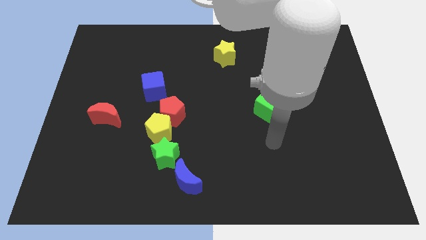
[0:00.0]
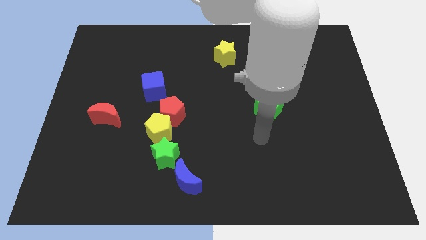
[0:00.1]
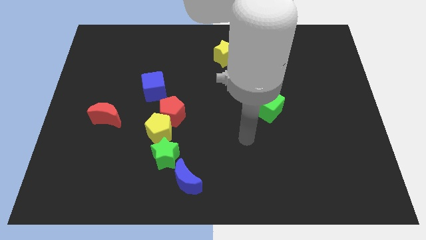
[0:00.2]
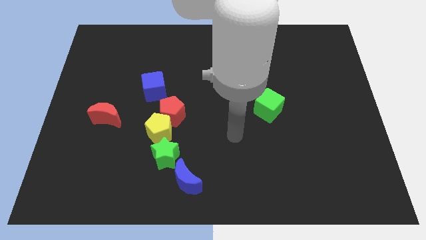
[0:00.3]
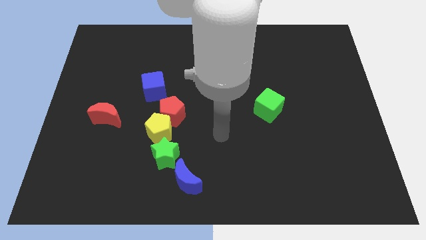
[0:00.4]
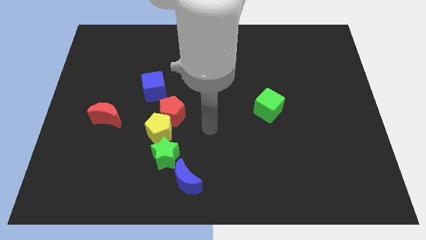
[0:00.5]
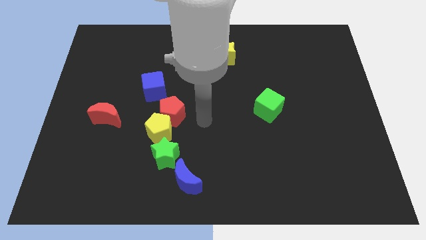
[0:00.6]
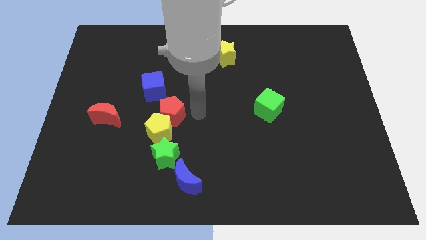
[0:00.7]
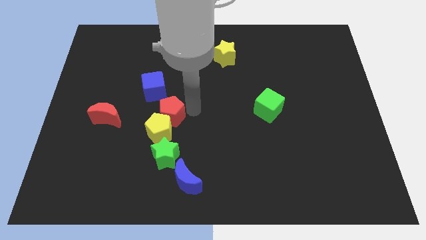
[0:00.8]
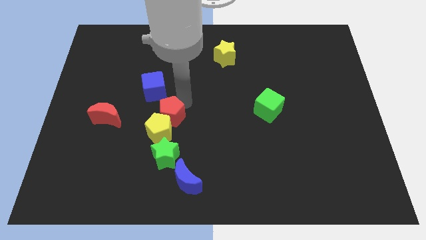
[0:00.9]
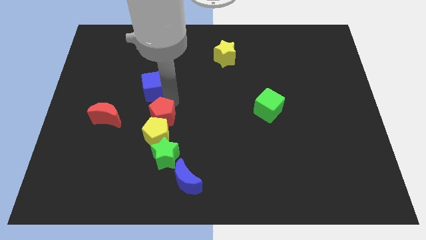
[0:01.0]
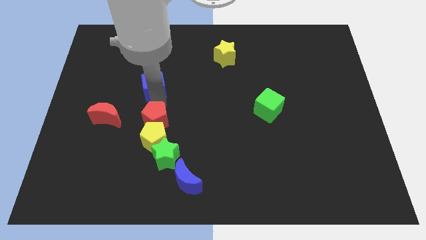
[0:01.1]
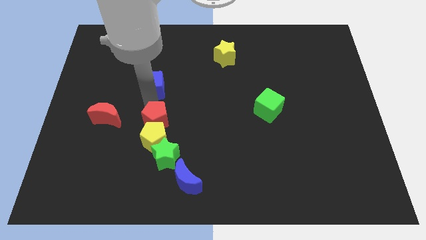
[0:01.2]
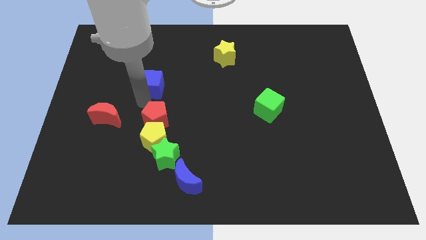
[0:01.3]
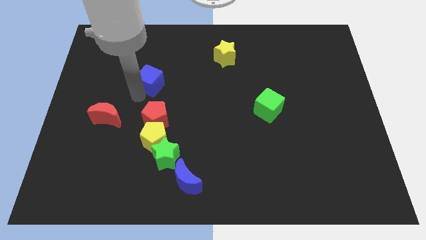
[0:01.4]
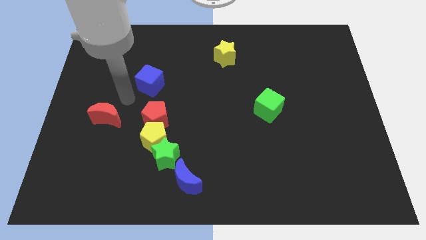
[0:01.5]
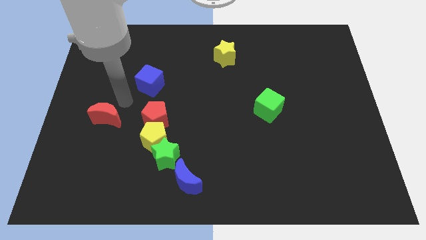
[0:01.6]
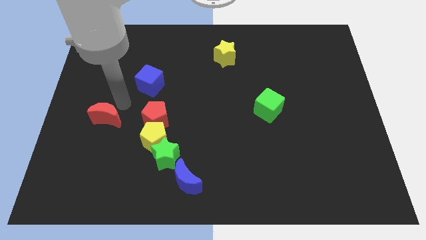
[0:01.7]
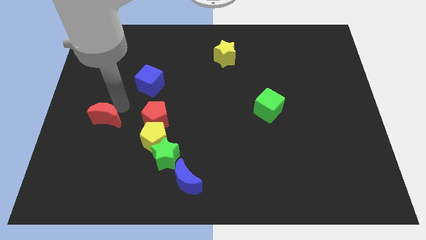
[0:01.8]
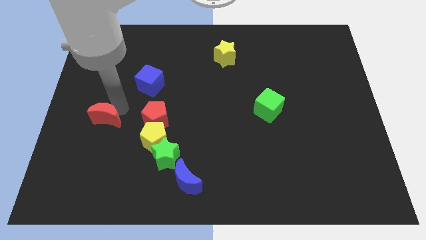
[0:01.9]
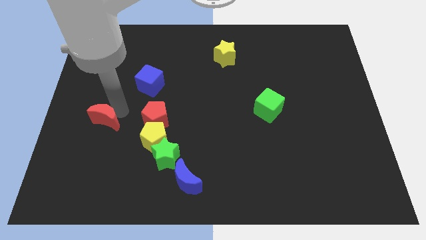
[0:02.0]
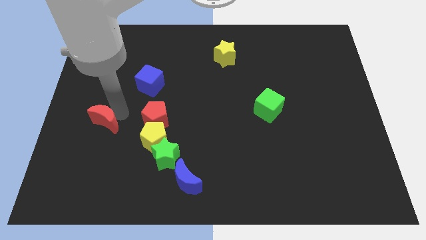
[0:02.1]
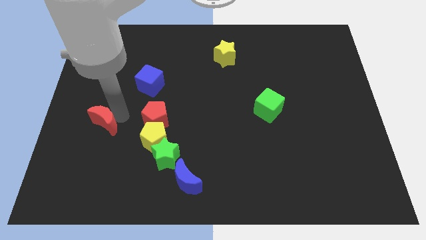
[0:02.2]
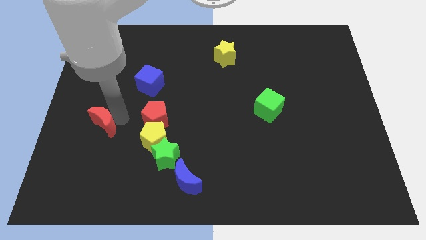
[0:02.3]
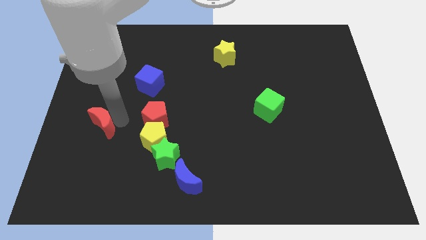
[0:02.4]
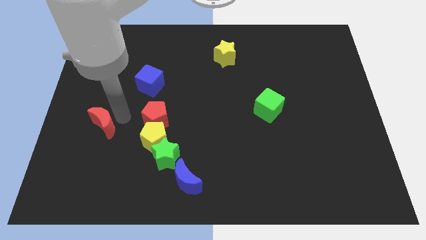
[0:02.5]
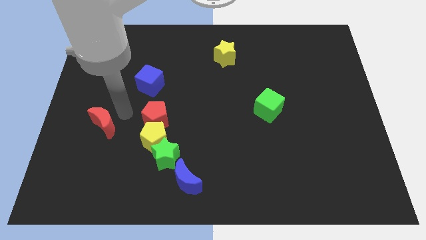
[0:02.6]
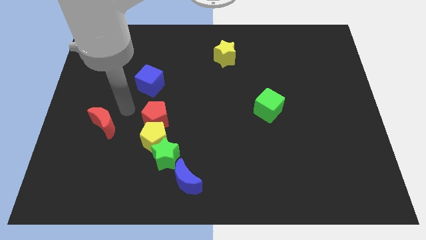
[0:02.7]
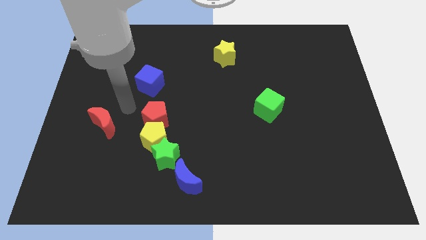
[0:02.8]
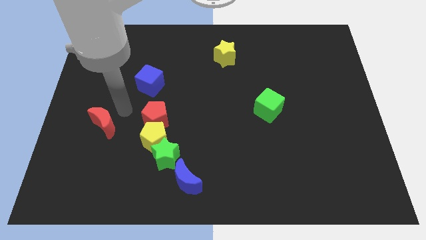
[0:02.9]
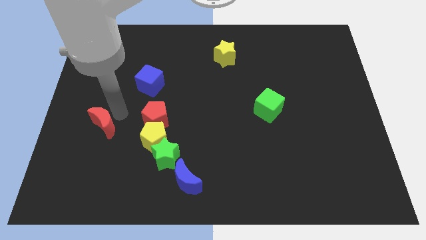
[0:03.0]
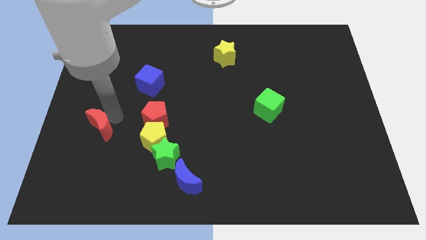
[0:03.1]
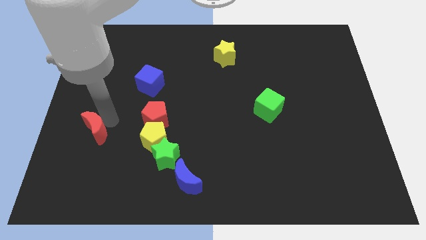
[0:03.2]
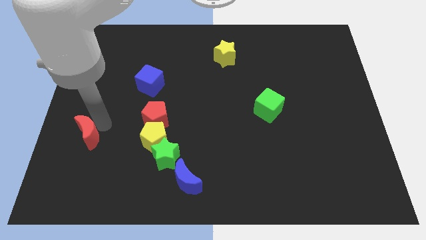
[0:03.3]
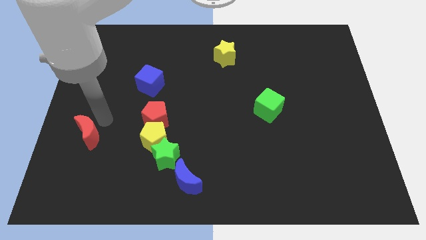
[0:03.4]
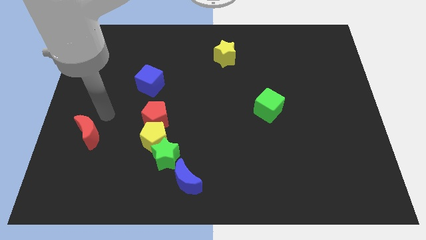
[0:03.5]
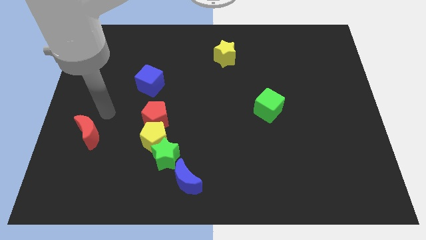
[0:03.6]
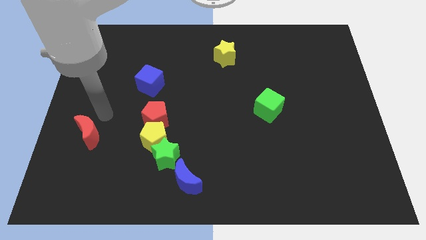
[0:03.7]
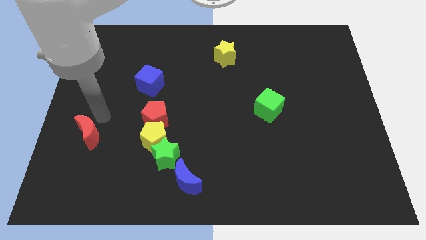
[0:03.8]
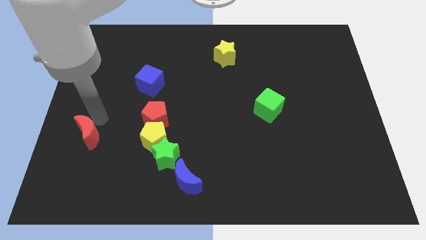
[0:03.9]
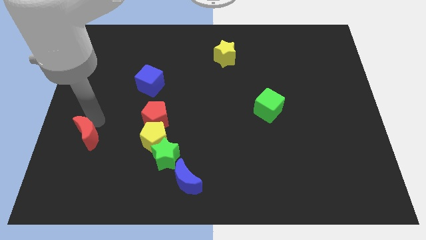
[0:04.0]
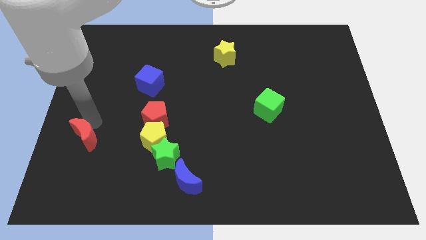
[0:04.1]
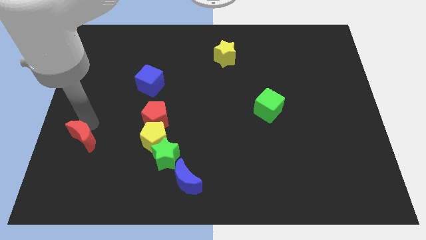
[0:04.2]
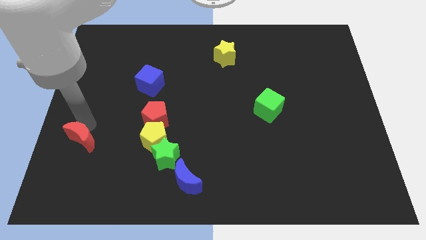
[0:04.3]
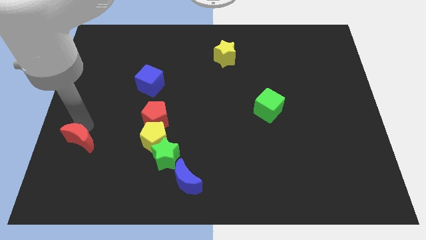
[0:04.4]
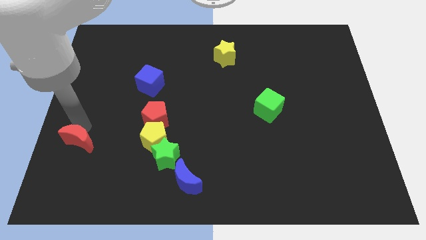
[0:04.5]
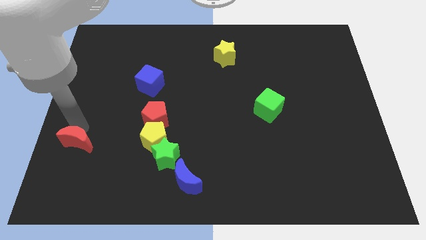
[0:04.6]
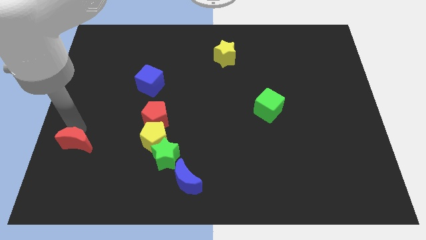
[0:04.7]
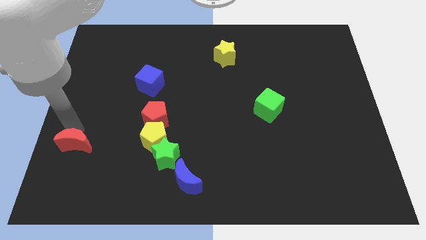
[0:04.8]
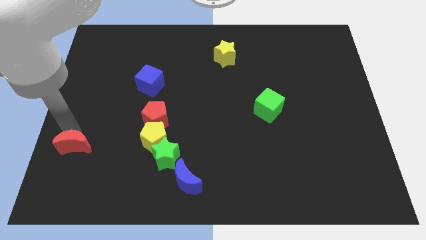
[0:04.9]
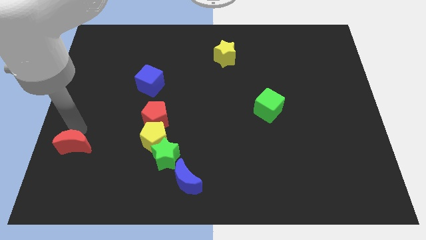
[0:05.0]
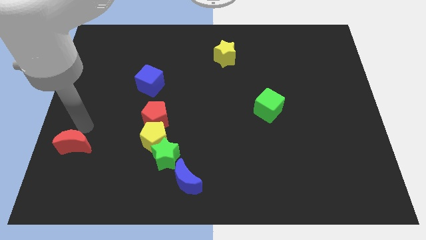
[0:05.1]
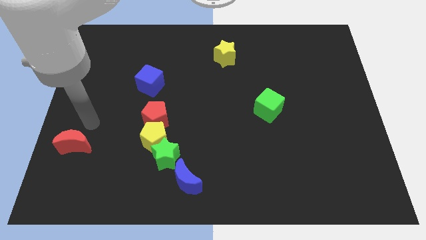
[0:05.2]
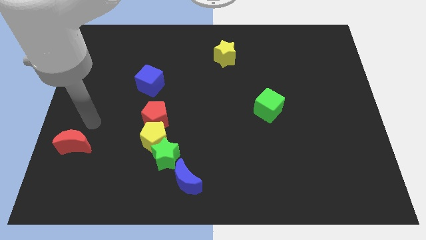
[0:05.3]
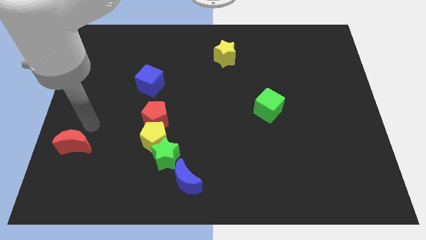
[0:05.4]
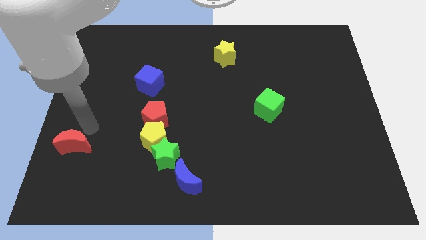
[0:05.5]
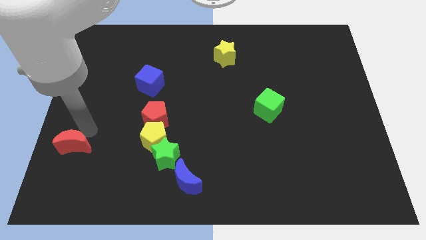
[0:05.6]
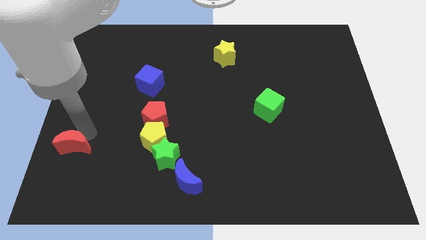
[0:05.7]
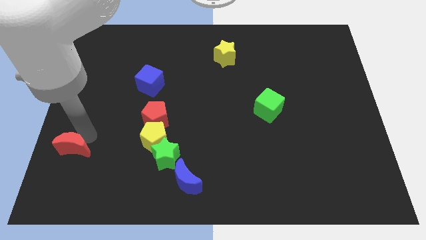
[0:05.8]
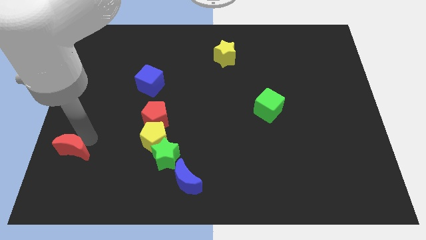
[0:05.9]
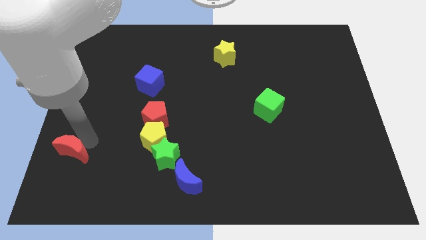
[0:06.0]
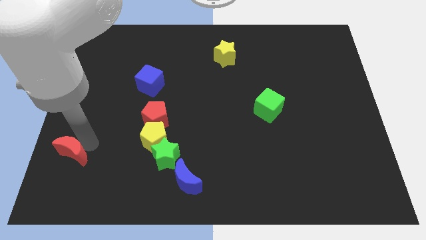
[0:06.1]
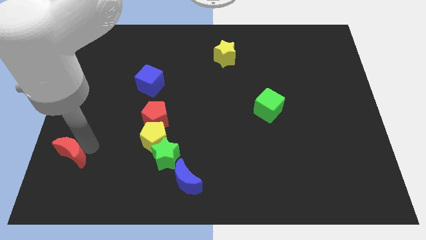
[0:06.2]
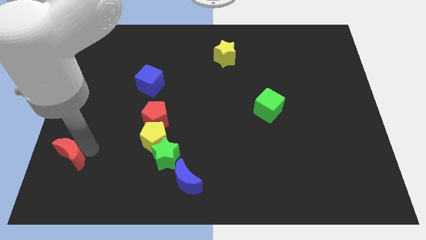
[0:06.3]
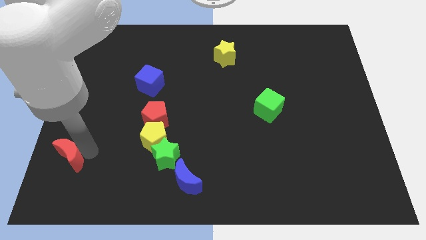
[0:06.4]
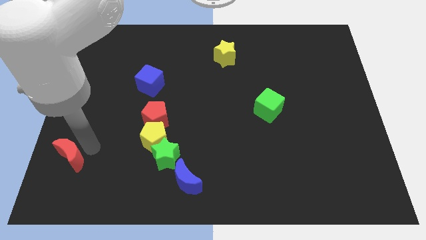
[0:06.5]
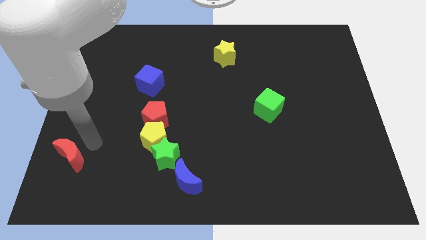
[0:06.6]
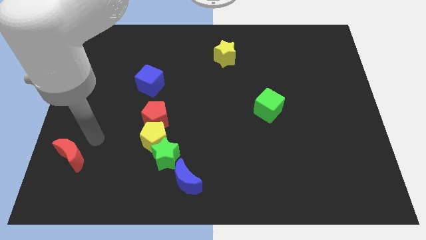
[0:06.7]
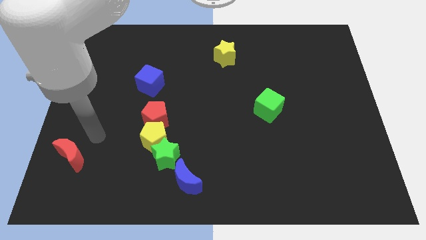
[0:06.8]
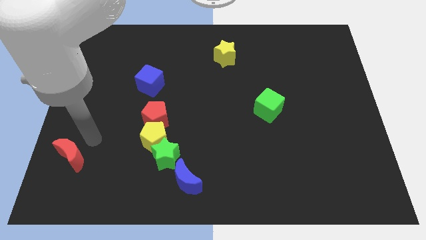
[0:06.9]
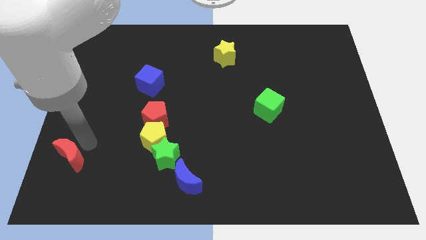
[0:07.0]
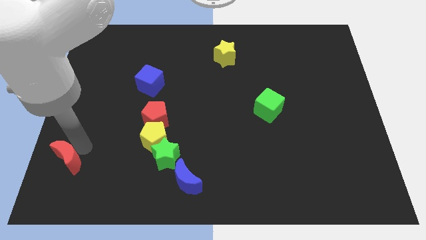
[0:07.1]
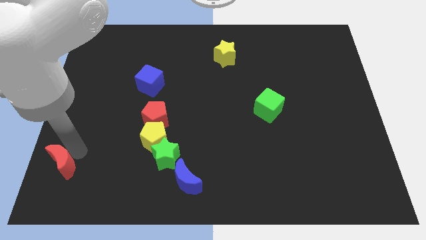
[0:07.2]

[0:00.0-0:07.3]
push the red moon to the bottom left of the board
